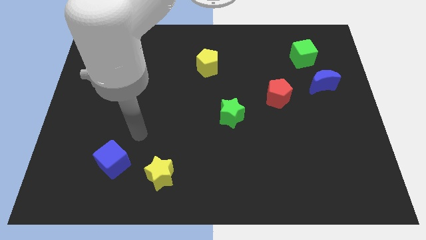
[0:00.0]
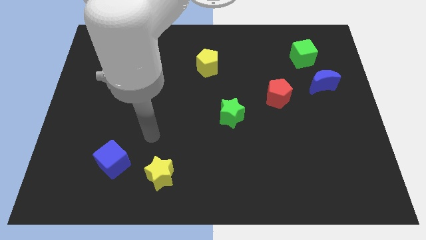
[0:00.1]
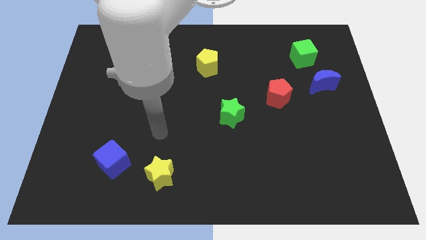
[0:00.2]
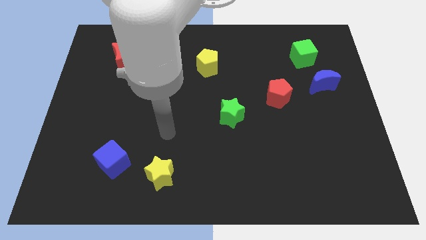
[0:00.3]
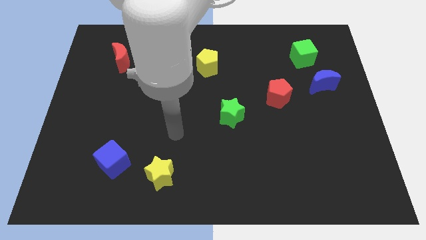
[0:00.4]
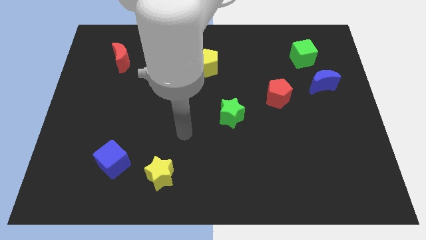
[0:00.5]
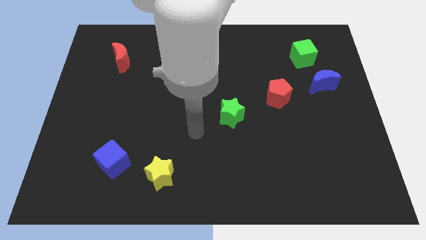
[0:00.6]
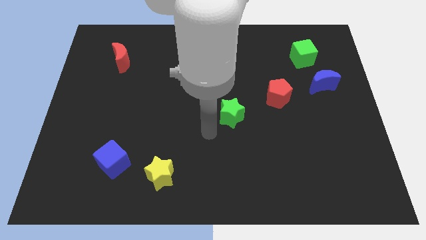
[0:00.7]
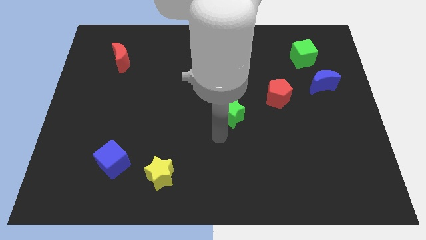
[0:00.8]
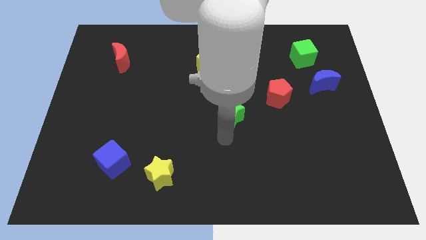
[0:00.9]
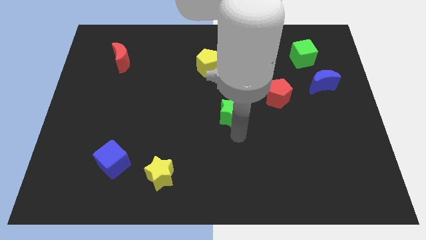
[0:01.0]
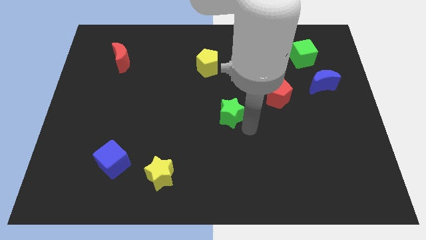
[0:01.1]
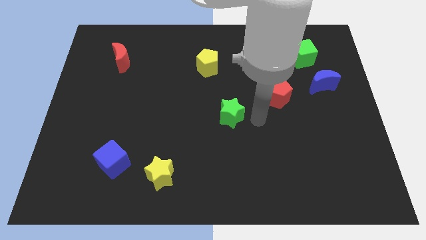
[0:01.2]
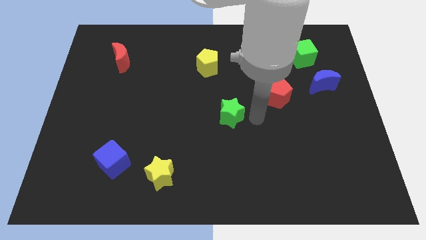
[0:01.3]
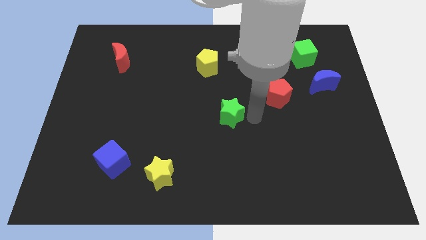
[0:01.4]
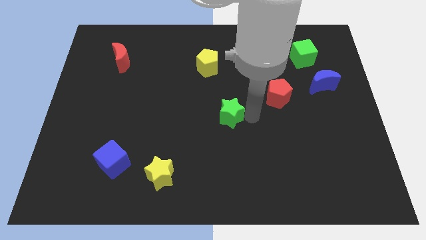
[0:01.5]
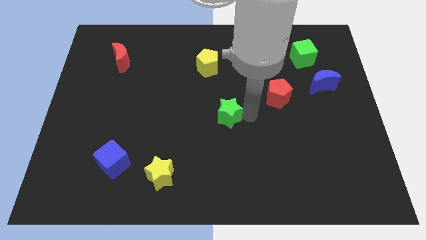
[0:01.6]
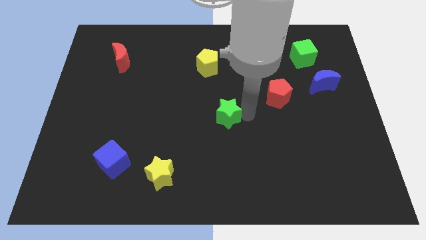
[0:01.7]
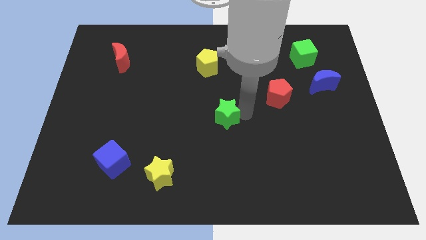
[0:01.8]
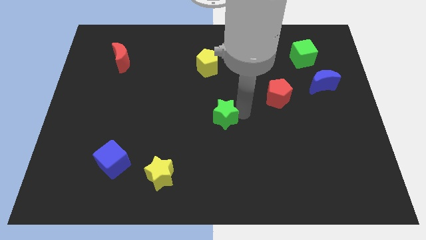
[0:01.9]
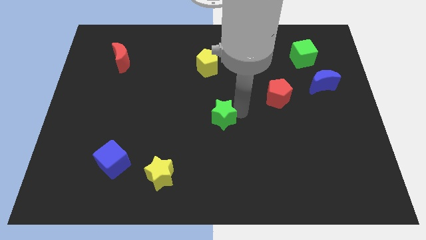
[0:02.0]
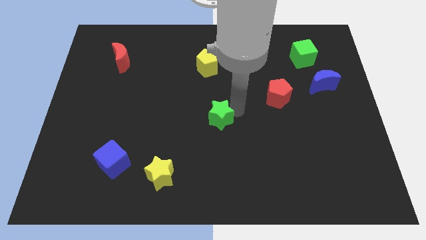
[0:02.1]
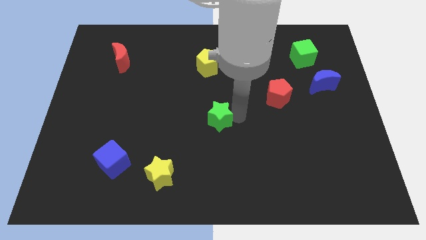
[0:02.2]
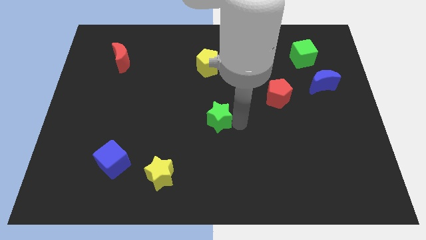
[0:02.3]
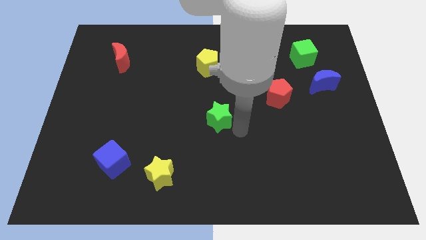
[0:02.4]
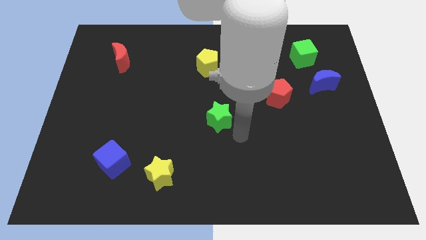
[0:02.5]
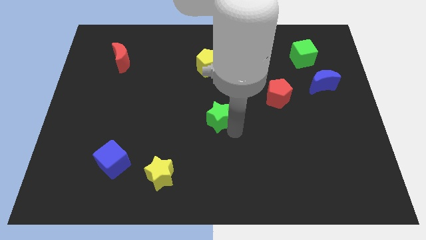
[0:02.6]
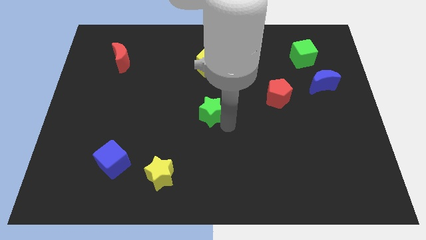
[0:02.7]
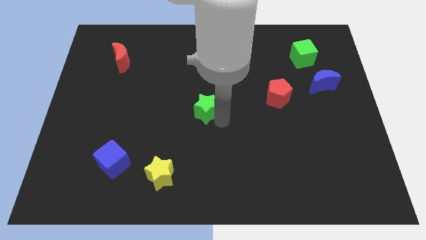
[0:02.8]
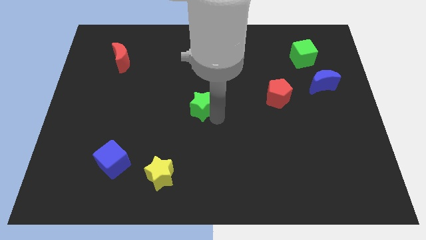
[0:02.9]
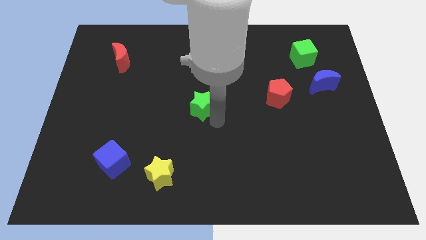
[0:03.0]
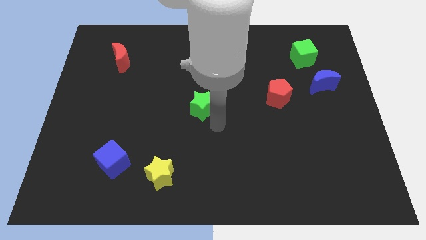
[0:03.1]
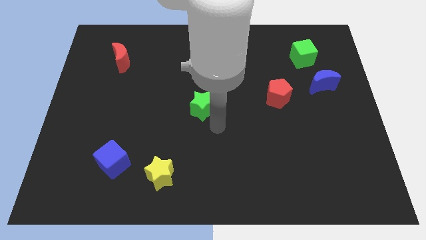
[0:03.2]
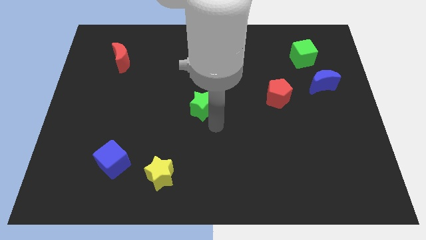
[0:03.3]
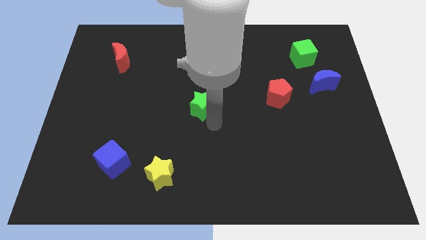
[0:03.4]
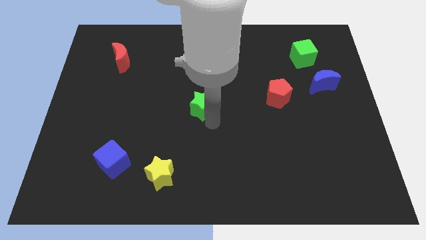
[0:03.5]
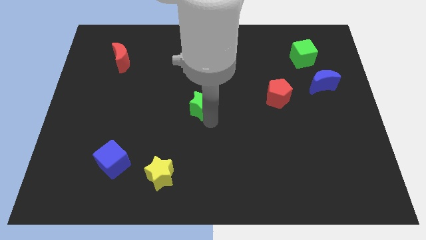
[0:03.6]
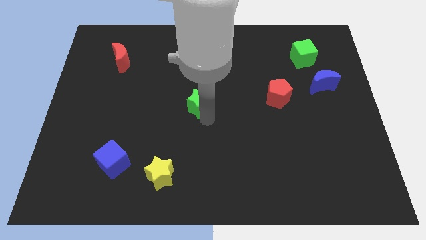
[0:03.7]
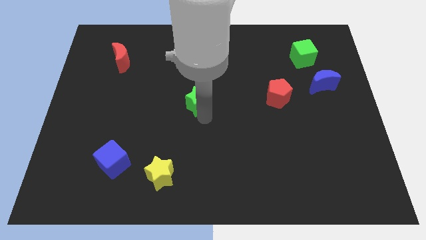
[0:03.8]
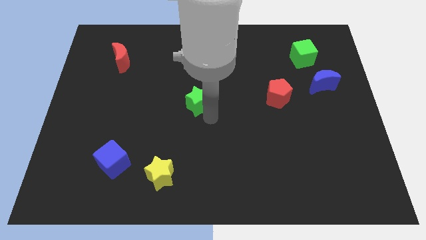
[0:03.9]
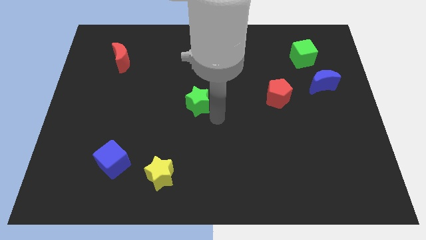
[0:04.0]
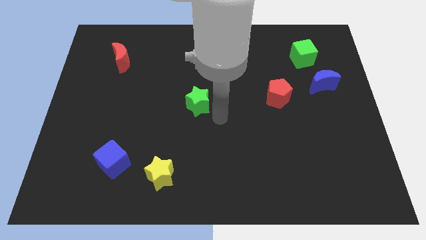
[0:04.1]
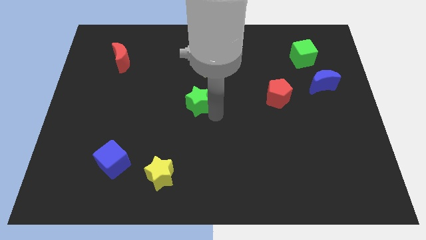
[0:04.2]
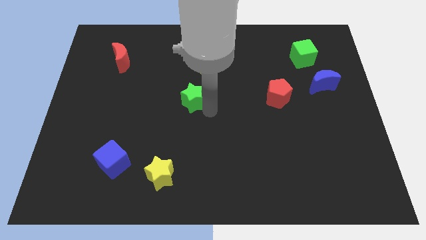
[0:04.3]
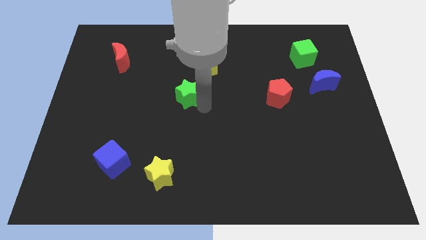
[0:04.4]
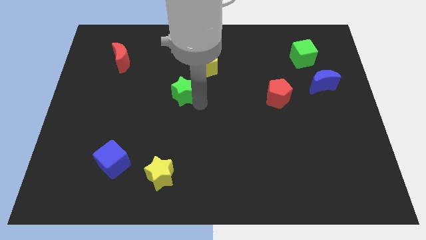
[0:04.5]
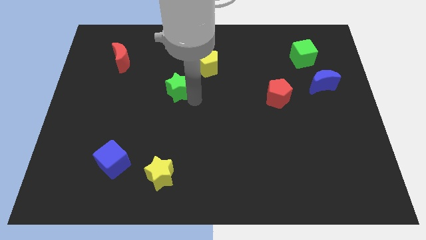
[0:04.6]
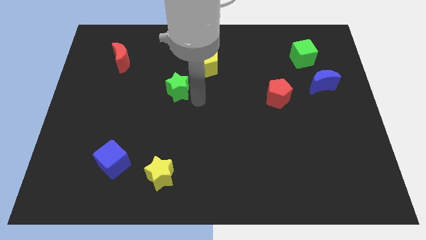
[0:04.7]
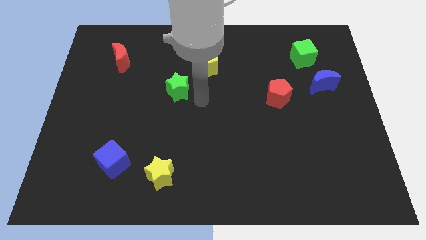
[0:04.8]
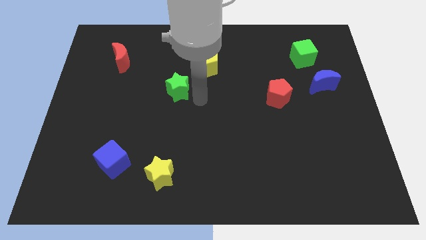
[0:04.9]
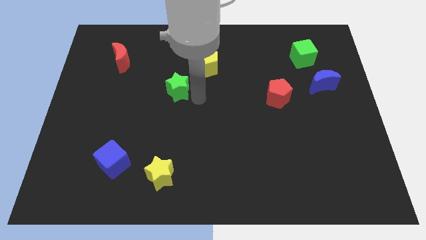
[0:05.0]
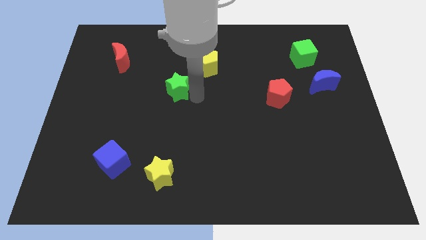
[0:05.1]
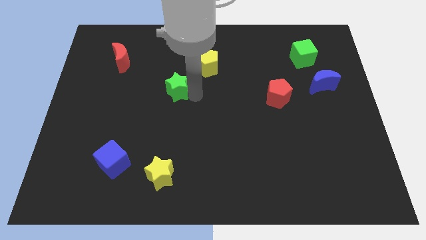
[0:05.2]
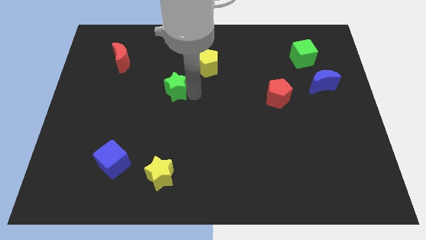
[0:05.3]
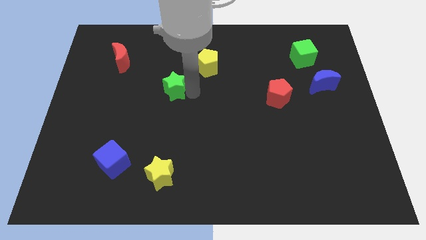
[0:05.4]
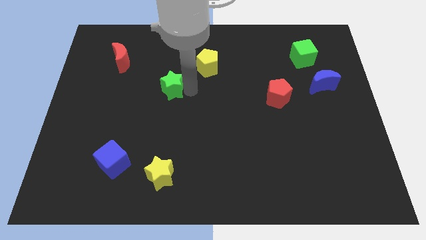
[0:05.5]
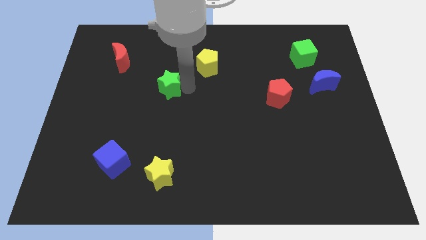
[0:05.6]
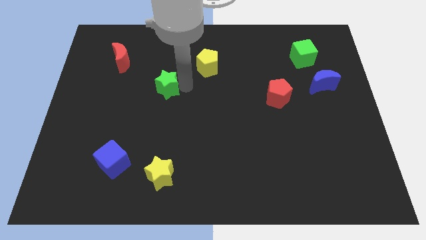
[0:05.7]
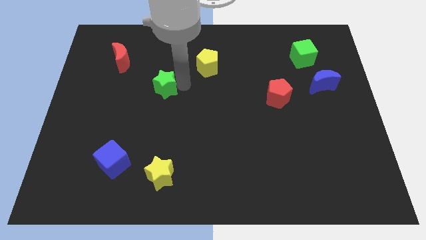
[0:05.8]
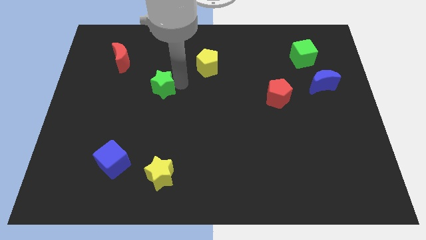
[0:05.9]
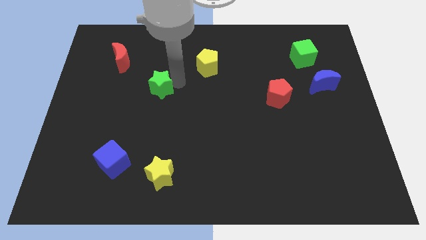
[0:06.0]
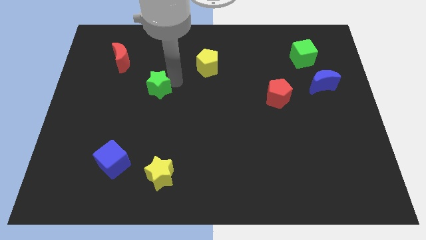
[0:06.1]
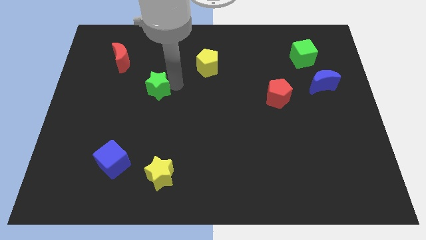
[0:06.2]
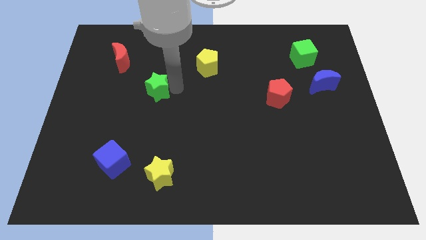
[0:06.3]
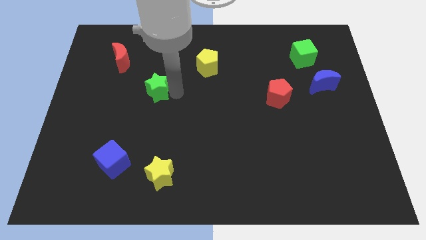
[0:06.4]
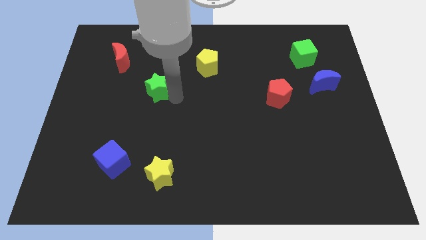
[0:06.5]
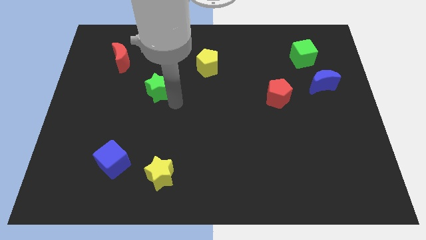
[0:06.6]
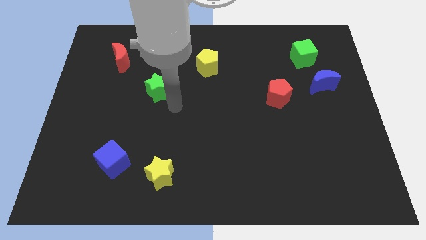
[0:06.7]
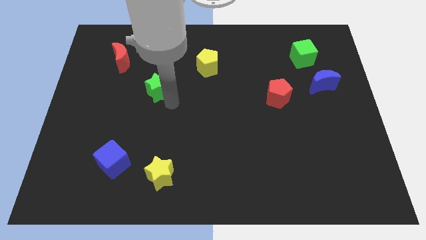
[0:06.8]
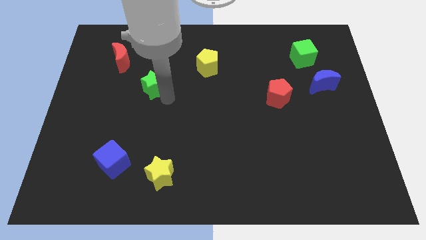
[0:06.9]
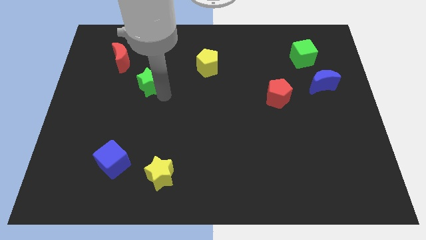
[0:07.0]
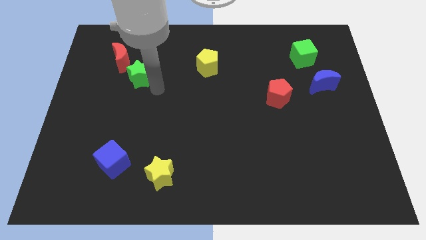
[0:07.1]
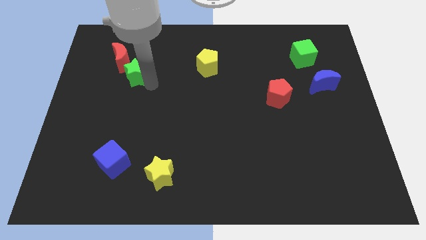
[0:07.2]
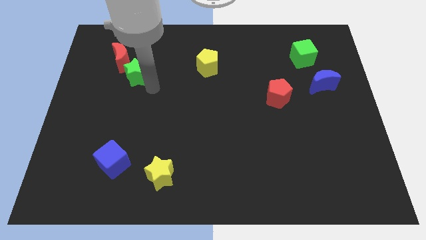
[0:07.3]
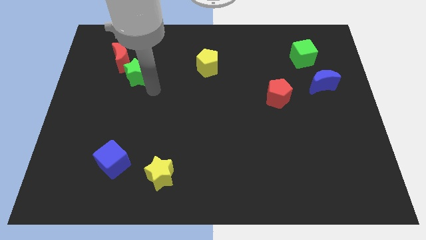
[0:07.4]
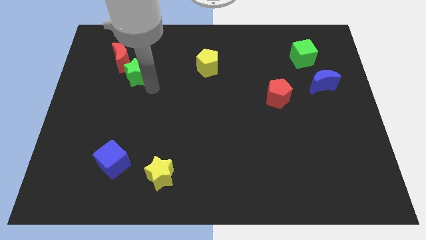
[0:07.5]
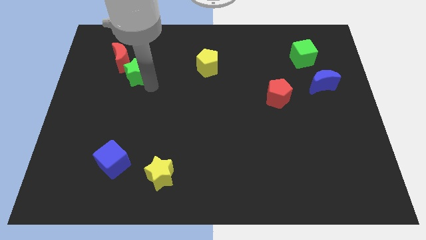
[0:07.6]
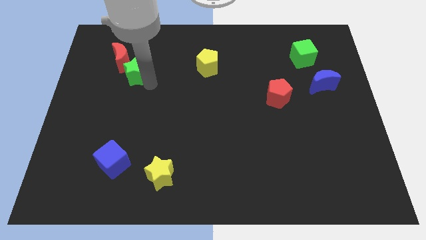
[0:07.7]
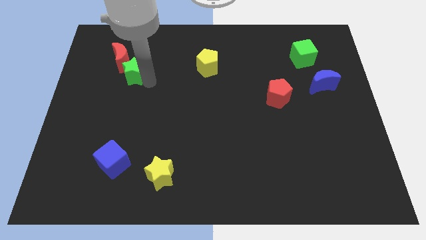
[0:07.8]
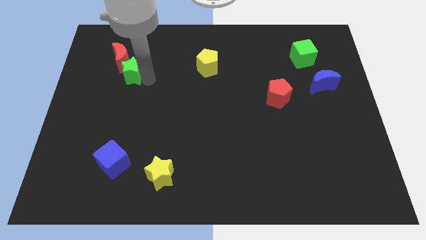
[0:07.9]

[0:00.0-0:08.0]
slide the green star towards the red moon
